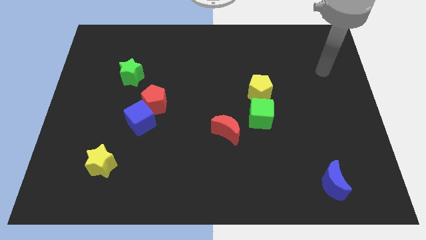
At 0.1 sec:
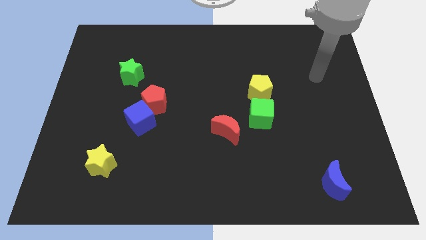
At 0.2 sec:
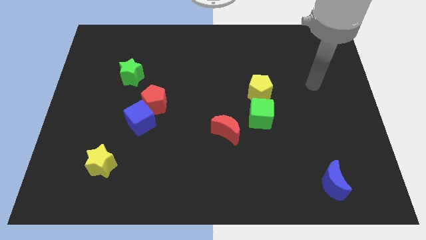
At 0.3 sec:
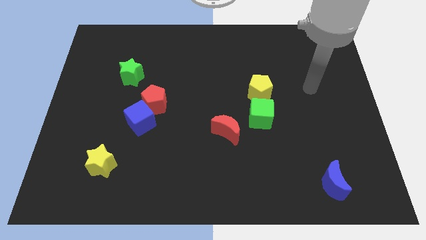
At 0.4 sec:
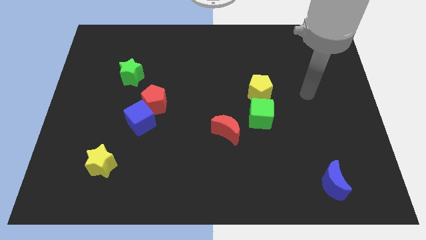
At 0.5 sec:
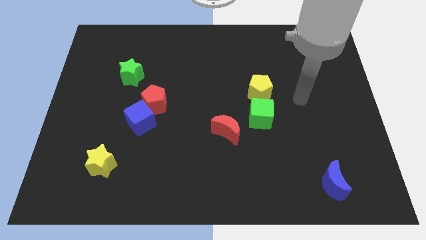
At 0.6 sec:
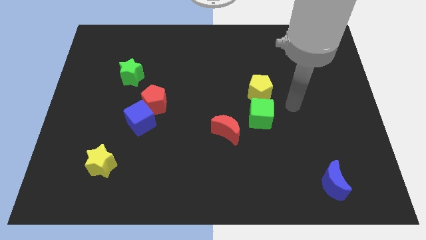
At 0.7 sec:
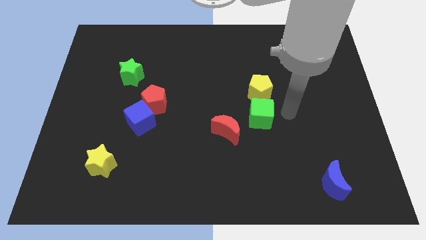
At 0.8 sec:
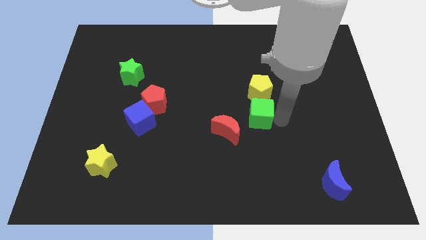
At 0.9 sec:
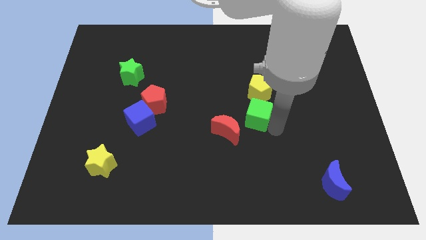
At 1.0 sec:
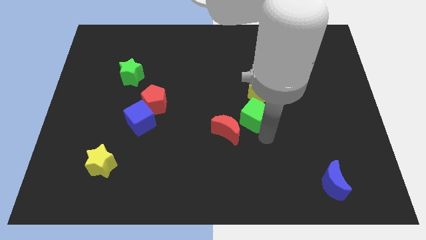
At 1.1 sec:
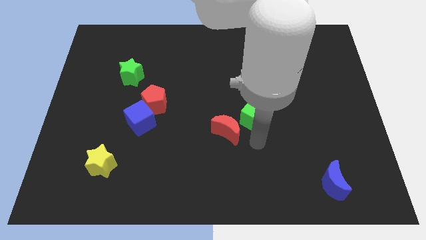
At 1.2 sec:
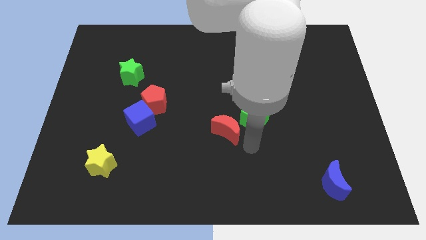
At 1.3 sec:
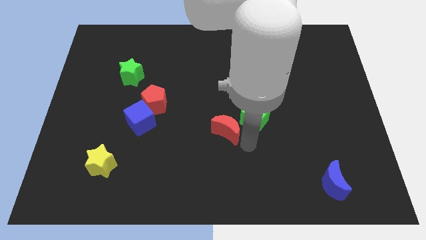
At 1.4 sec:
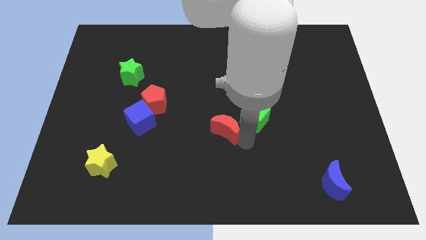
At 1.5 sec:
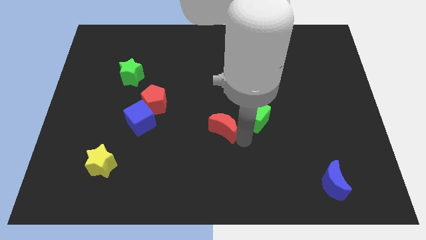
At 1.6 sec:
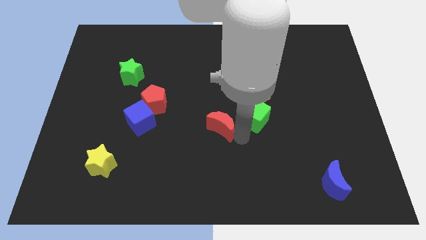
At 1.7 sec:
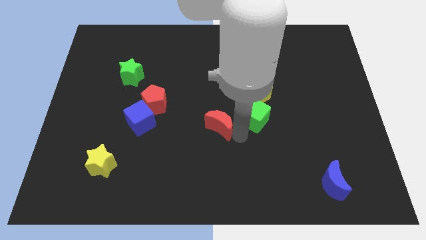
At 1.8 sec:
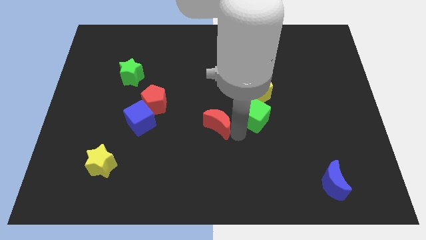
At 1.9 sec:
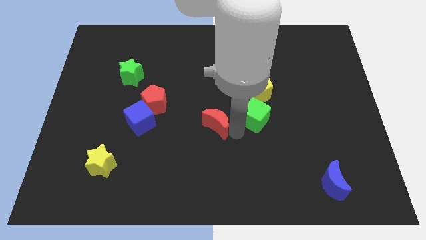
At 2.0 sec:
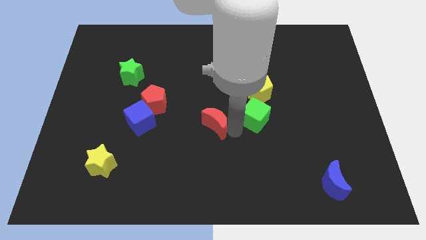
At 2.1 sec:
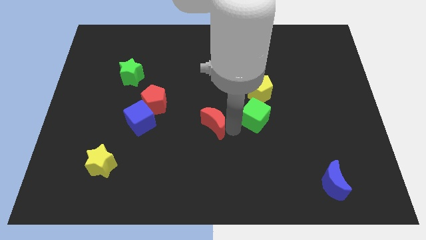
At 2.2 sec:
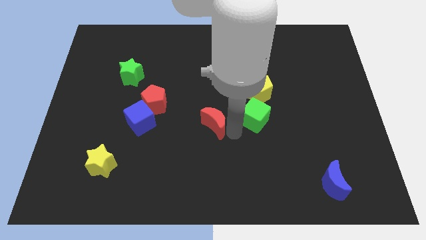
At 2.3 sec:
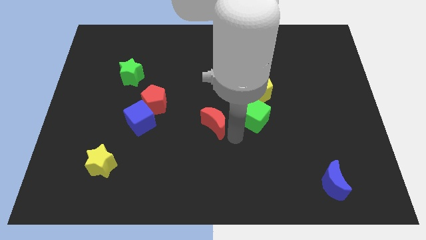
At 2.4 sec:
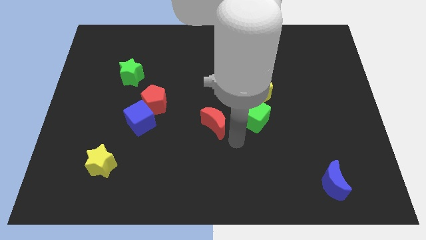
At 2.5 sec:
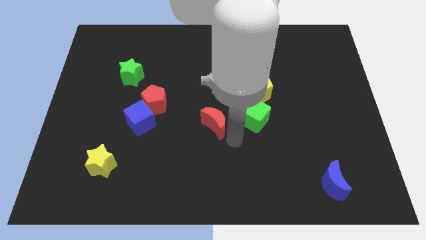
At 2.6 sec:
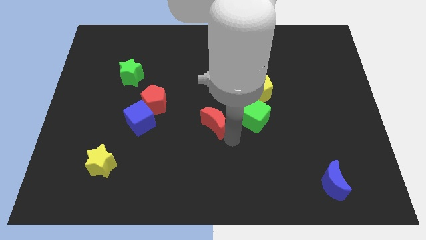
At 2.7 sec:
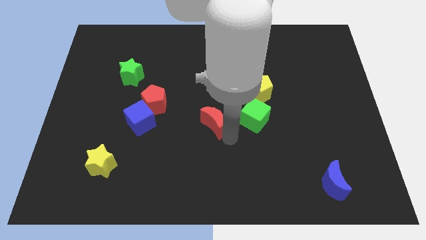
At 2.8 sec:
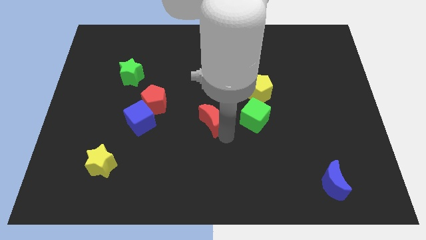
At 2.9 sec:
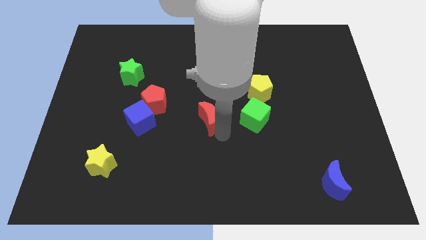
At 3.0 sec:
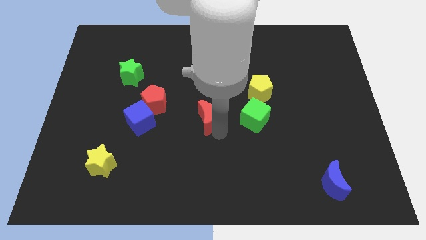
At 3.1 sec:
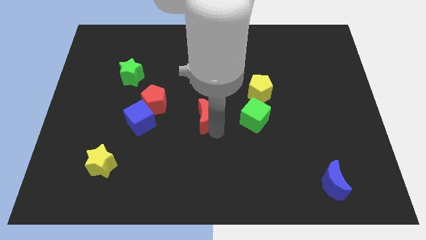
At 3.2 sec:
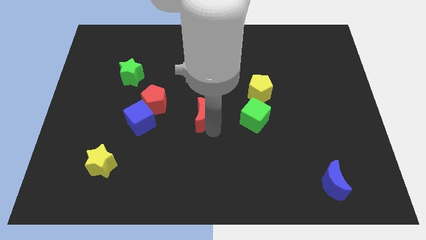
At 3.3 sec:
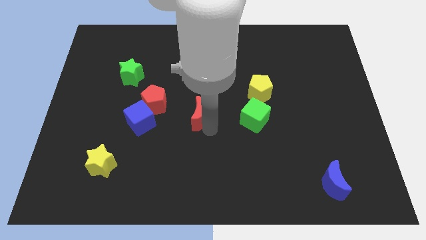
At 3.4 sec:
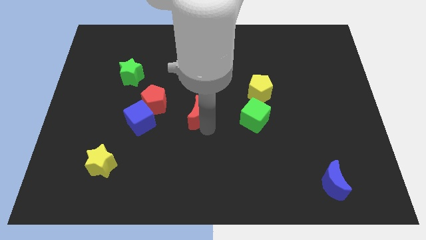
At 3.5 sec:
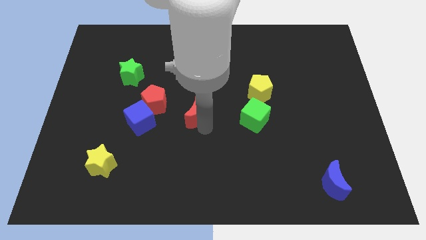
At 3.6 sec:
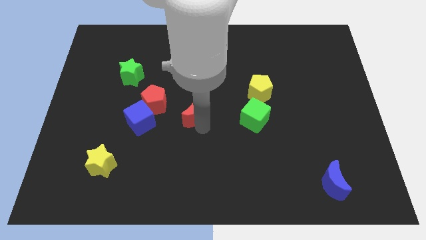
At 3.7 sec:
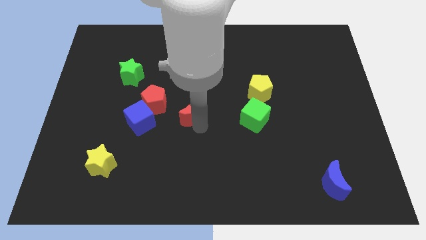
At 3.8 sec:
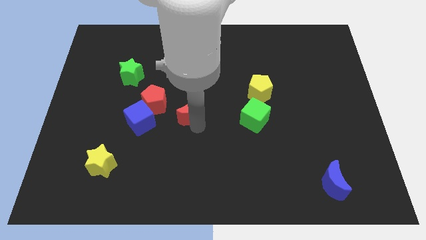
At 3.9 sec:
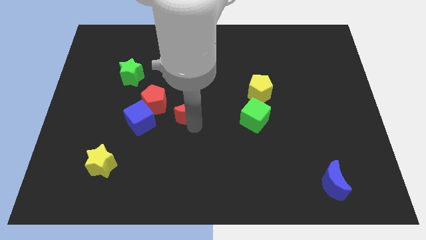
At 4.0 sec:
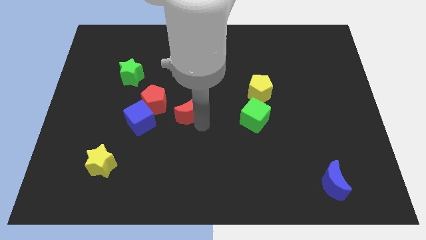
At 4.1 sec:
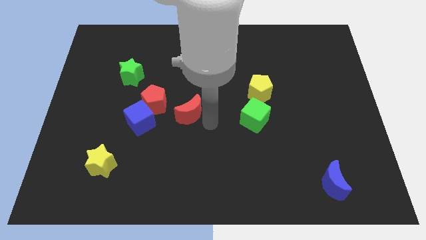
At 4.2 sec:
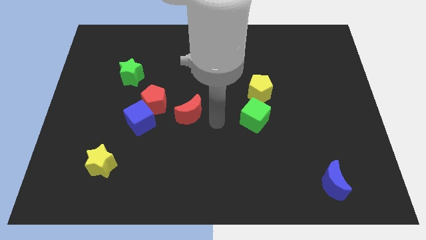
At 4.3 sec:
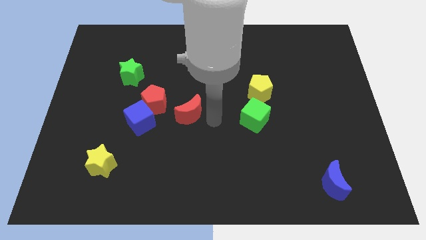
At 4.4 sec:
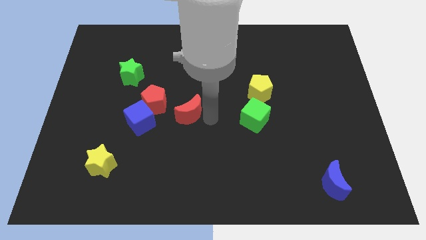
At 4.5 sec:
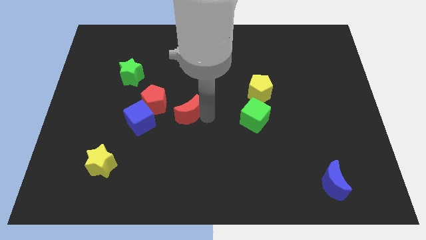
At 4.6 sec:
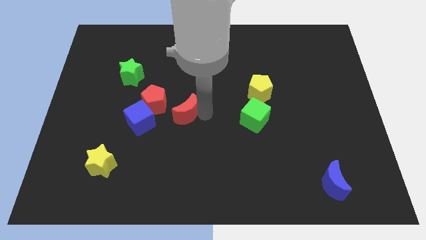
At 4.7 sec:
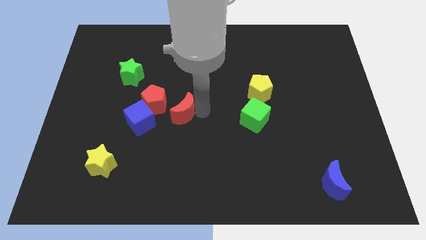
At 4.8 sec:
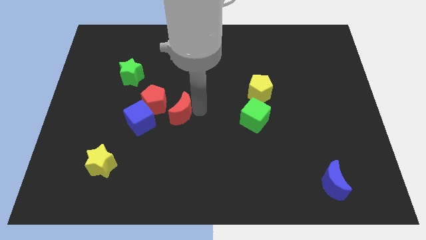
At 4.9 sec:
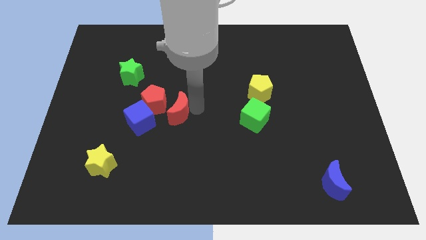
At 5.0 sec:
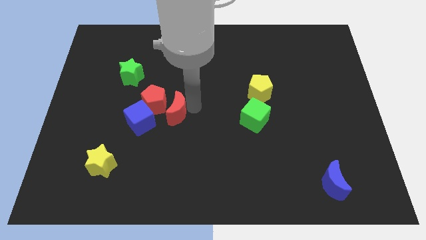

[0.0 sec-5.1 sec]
slide the red moon to the red pentagon

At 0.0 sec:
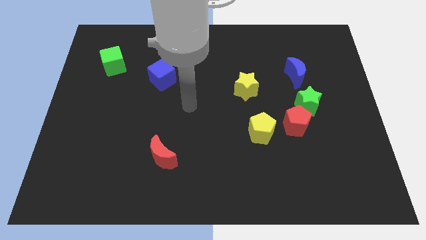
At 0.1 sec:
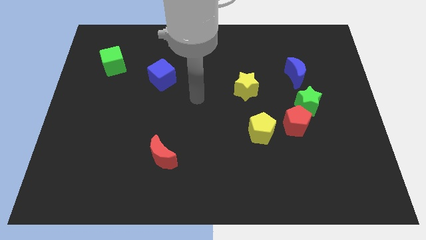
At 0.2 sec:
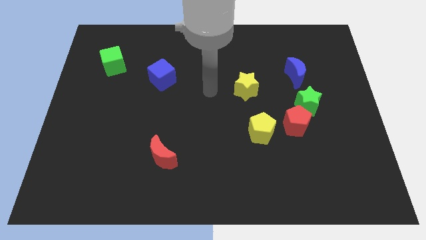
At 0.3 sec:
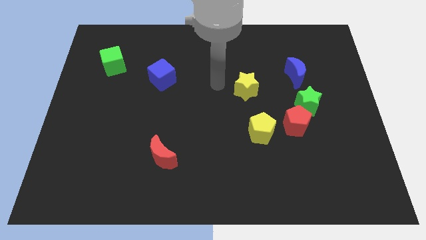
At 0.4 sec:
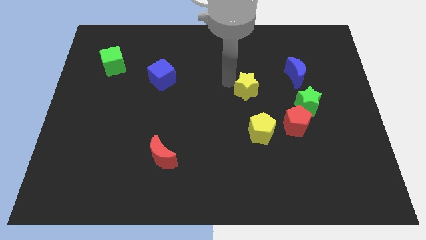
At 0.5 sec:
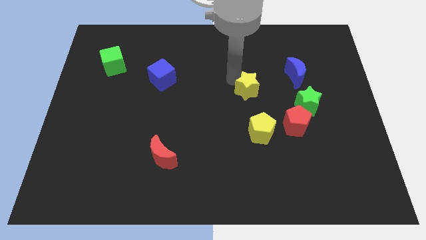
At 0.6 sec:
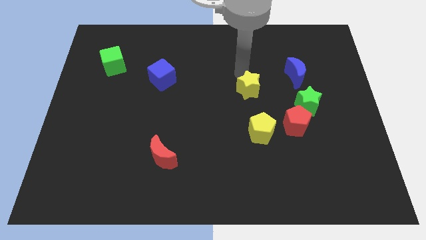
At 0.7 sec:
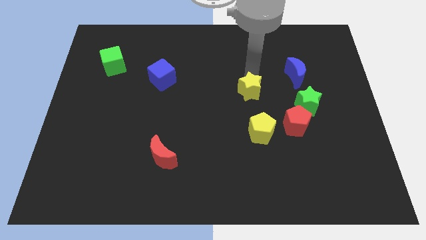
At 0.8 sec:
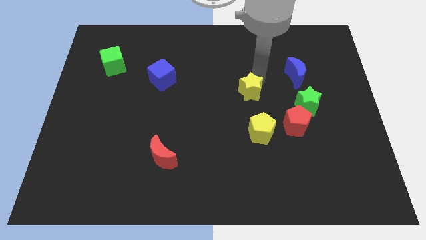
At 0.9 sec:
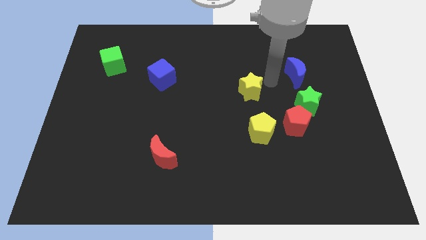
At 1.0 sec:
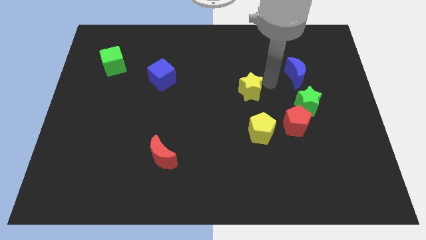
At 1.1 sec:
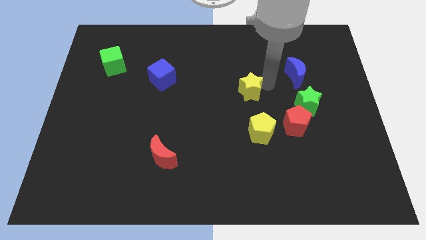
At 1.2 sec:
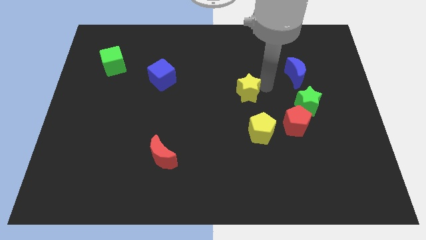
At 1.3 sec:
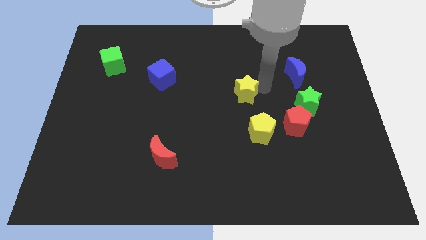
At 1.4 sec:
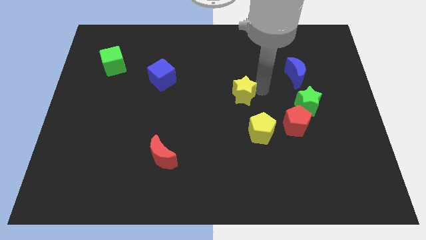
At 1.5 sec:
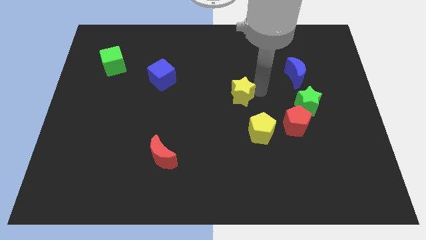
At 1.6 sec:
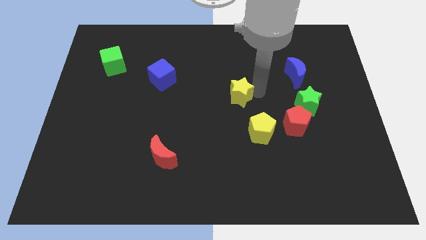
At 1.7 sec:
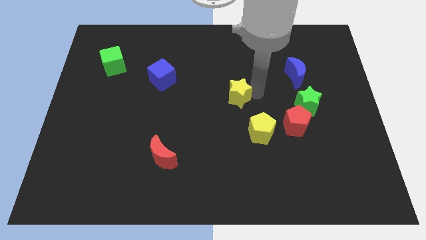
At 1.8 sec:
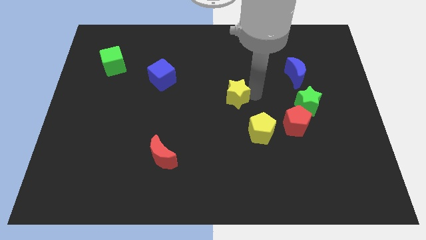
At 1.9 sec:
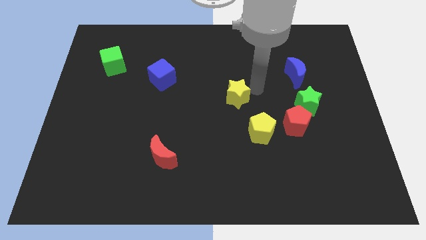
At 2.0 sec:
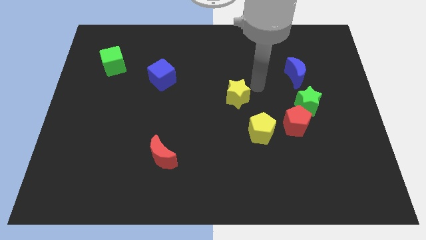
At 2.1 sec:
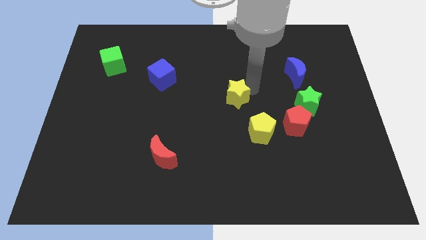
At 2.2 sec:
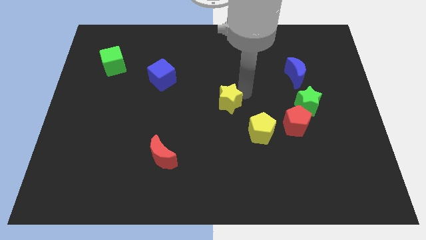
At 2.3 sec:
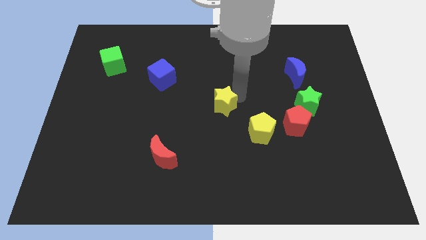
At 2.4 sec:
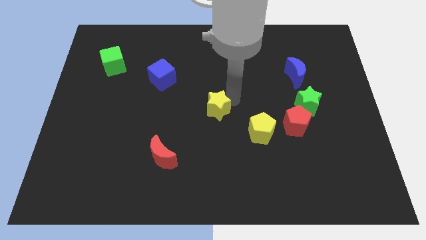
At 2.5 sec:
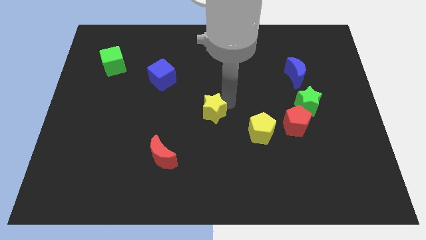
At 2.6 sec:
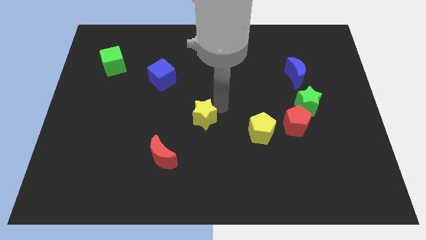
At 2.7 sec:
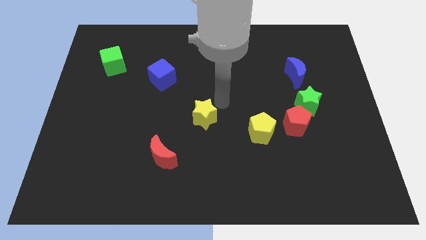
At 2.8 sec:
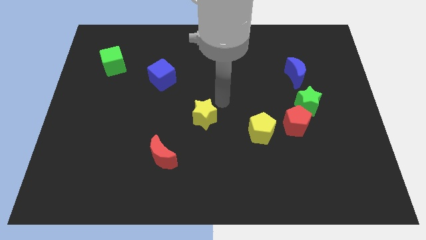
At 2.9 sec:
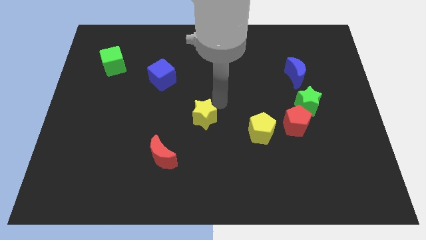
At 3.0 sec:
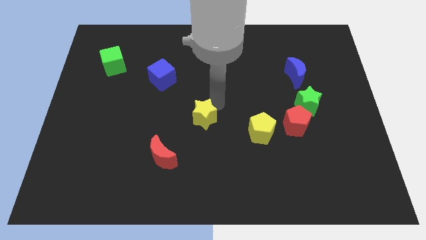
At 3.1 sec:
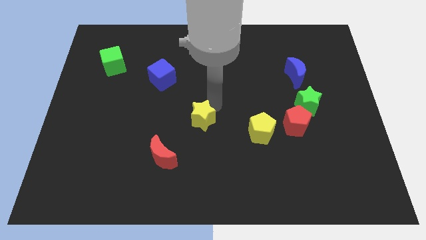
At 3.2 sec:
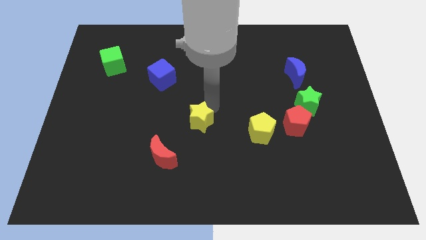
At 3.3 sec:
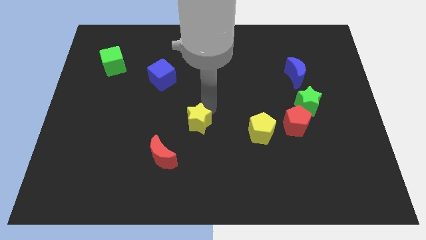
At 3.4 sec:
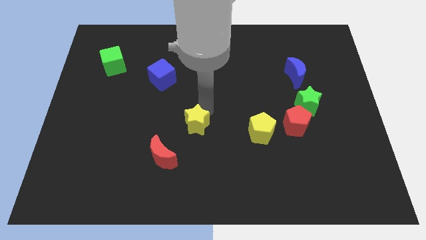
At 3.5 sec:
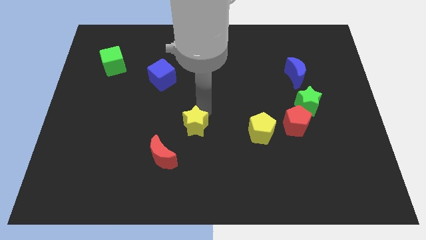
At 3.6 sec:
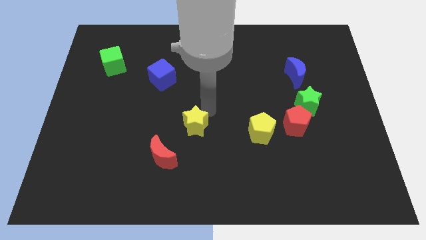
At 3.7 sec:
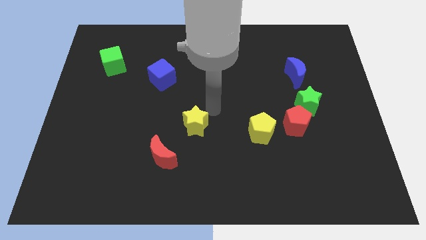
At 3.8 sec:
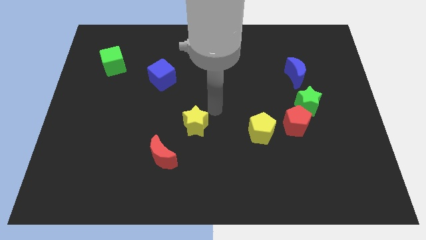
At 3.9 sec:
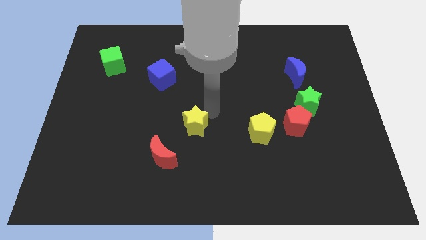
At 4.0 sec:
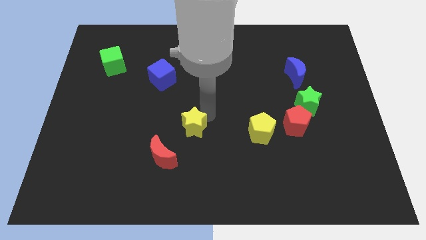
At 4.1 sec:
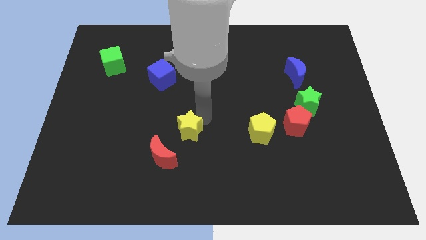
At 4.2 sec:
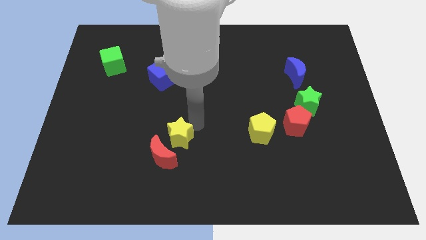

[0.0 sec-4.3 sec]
put the yellow star towards the red moon
